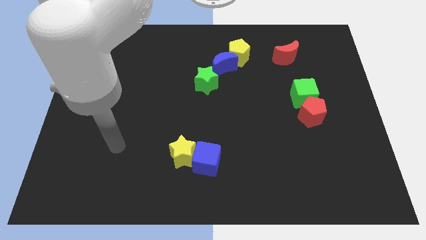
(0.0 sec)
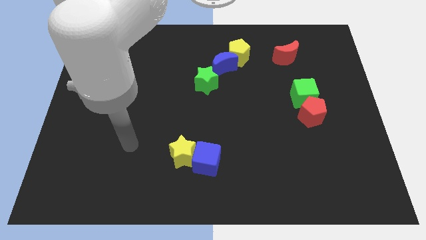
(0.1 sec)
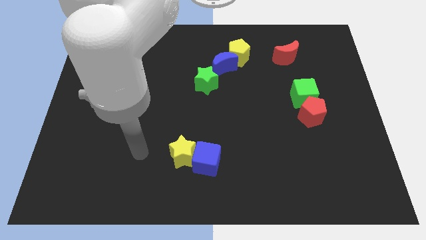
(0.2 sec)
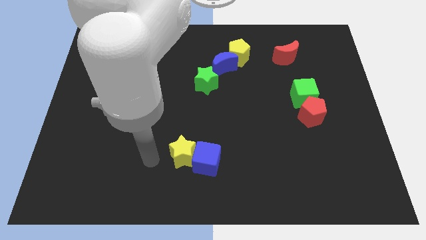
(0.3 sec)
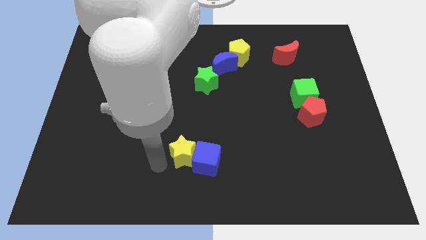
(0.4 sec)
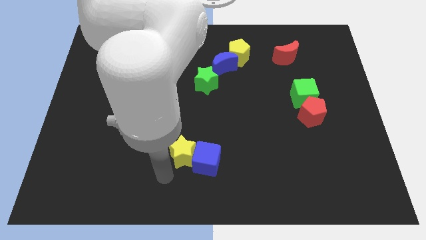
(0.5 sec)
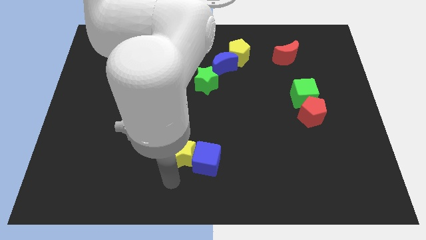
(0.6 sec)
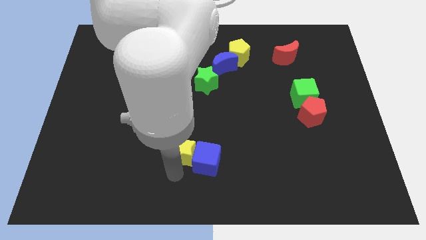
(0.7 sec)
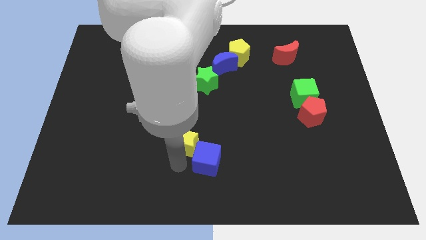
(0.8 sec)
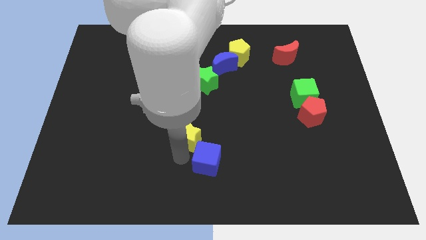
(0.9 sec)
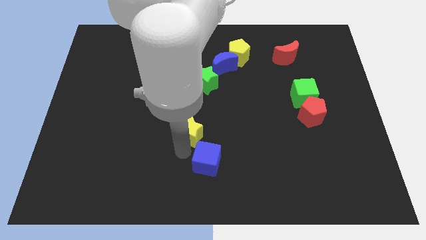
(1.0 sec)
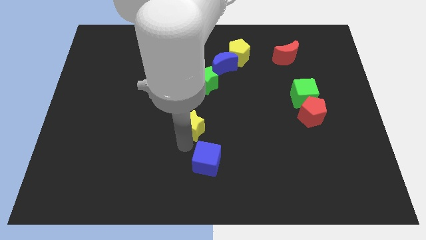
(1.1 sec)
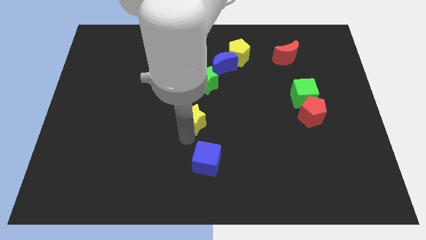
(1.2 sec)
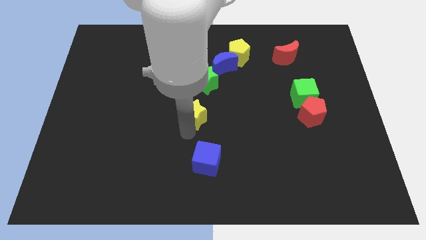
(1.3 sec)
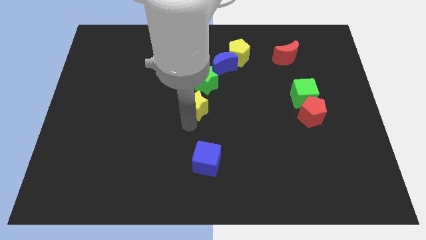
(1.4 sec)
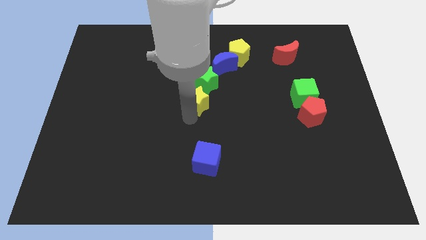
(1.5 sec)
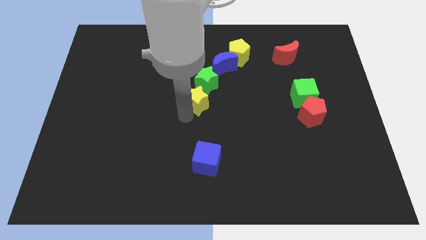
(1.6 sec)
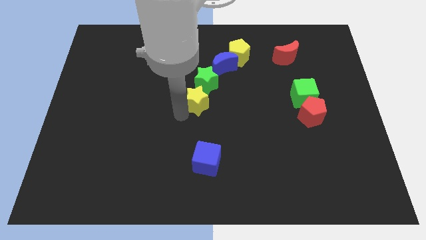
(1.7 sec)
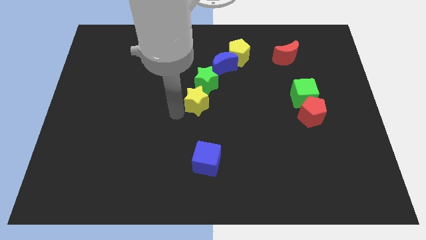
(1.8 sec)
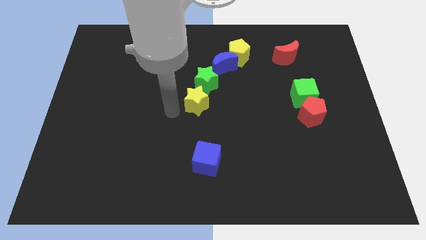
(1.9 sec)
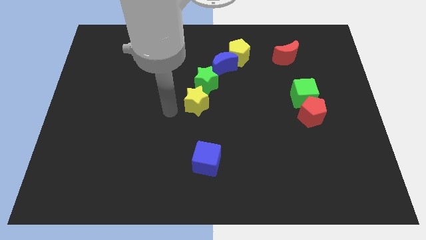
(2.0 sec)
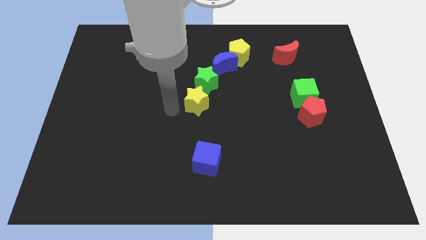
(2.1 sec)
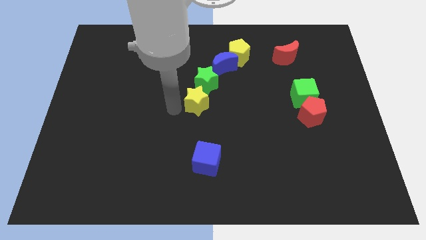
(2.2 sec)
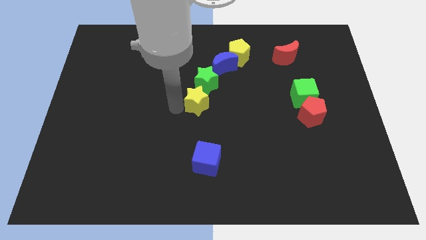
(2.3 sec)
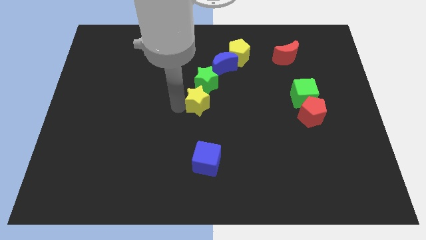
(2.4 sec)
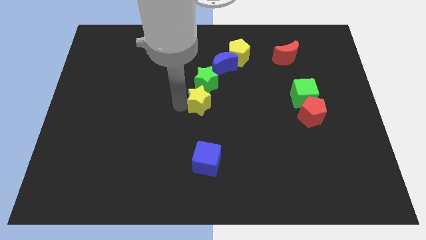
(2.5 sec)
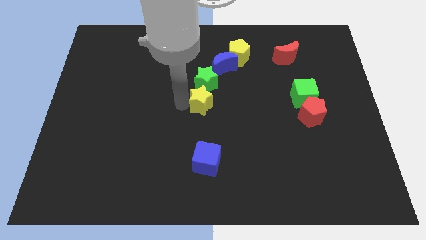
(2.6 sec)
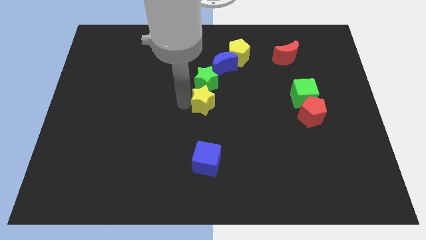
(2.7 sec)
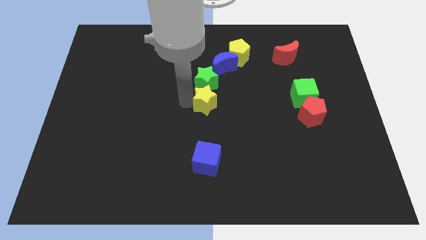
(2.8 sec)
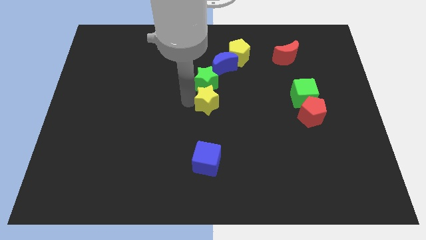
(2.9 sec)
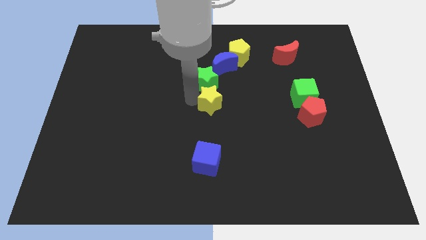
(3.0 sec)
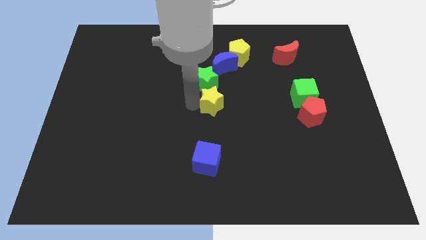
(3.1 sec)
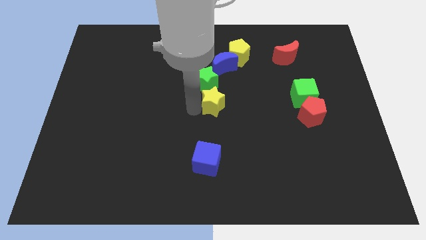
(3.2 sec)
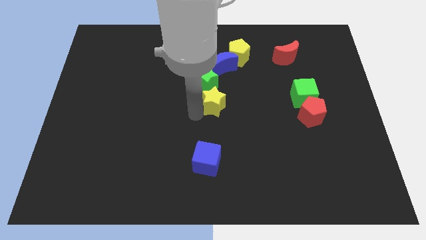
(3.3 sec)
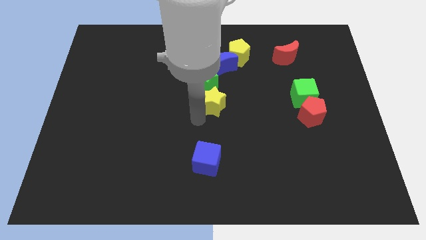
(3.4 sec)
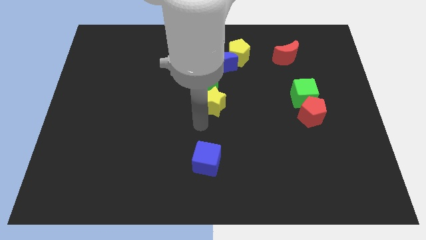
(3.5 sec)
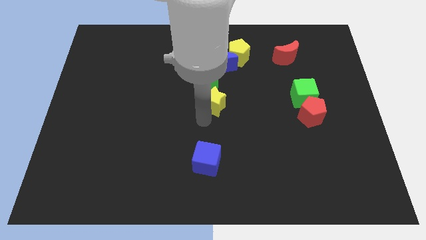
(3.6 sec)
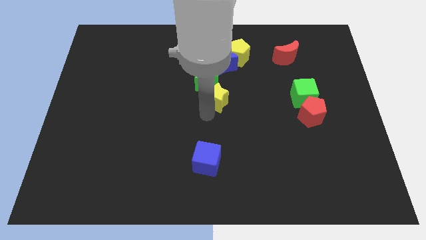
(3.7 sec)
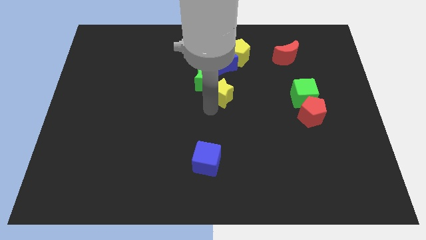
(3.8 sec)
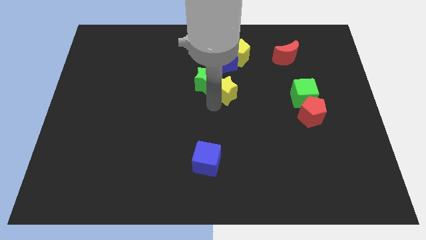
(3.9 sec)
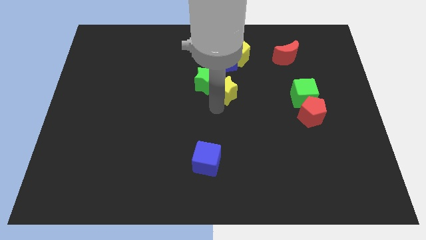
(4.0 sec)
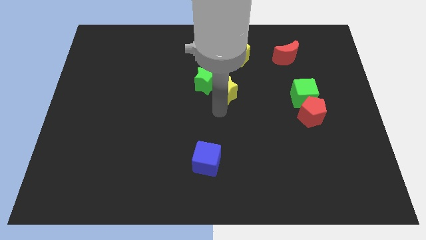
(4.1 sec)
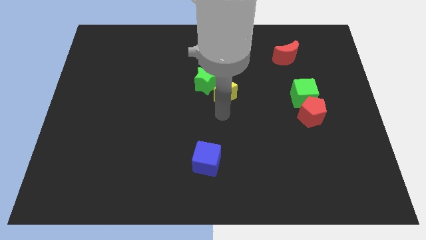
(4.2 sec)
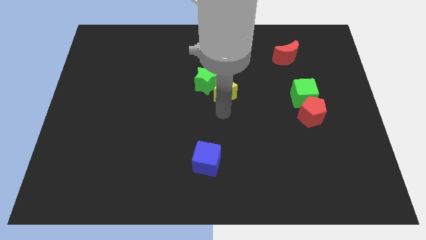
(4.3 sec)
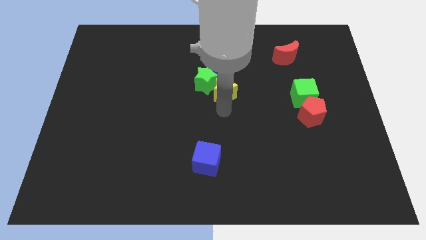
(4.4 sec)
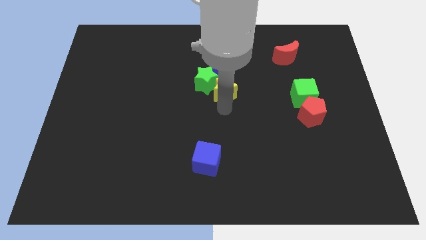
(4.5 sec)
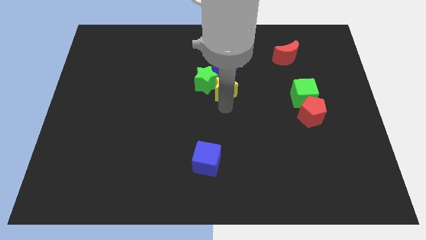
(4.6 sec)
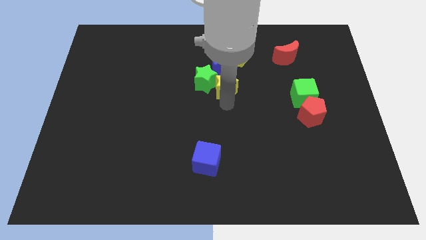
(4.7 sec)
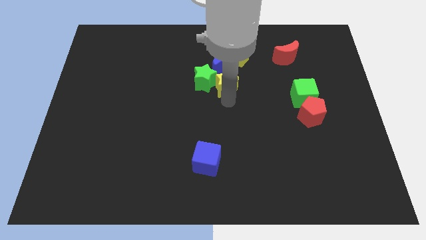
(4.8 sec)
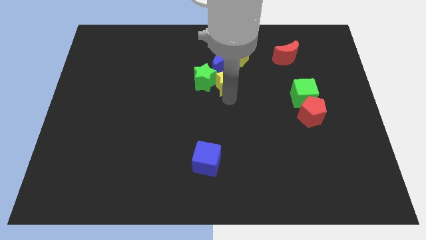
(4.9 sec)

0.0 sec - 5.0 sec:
slide the yellow star towards the blue moon

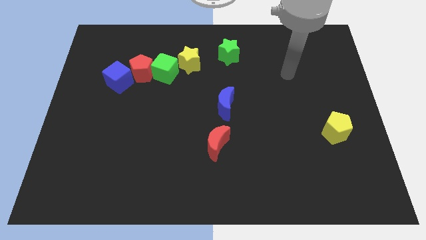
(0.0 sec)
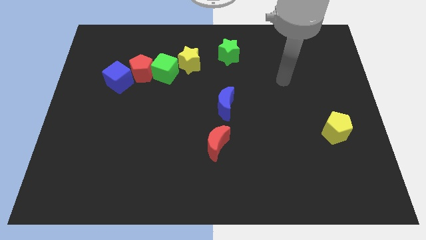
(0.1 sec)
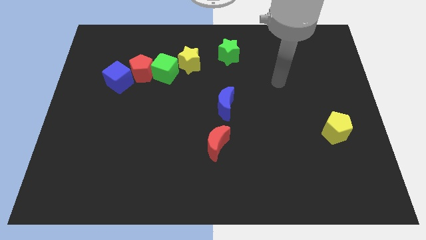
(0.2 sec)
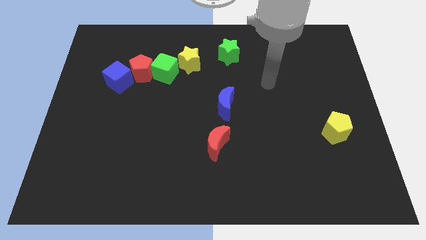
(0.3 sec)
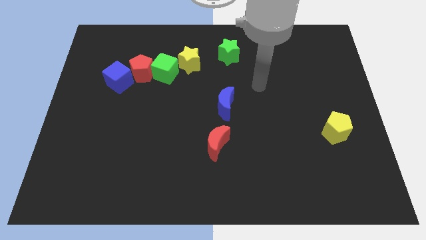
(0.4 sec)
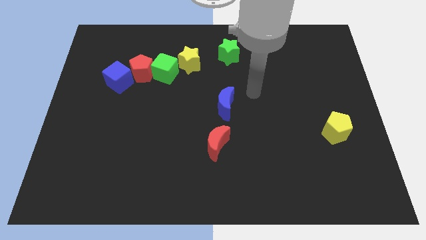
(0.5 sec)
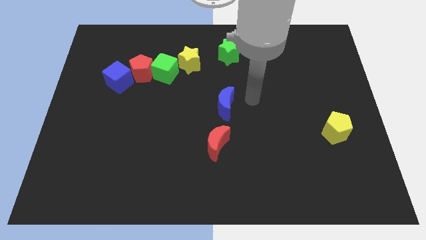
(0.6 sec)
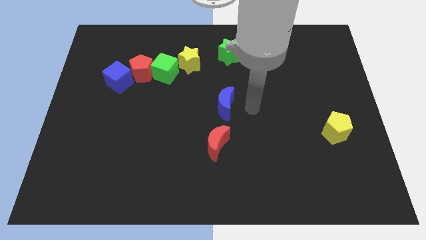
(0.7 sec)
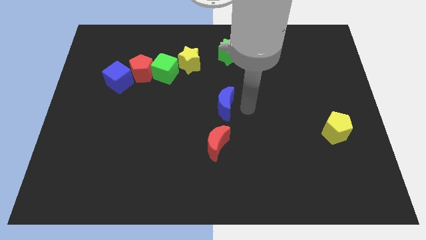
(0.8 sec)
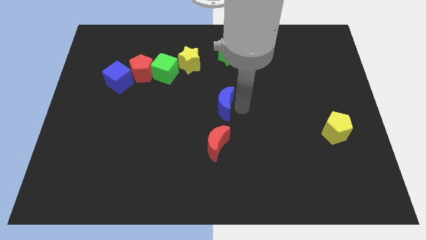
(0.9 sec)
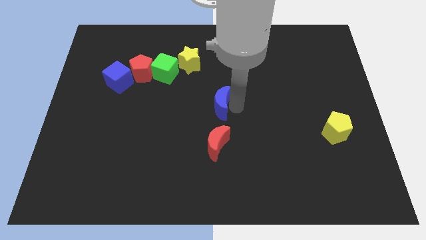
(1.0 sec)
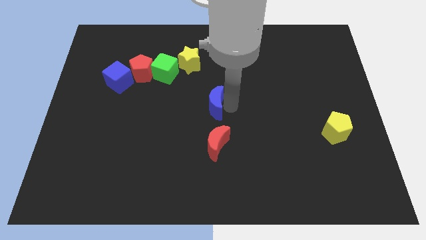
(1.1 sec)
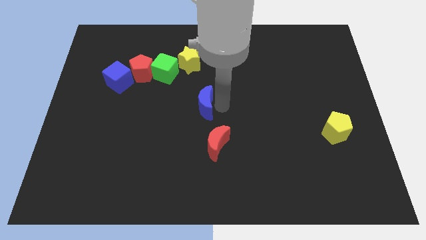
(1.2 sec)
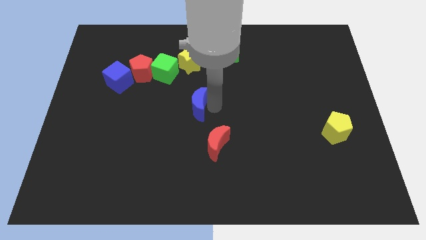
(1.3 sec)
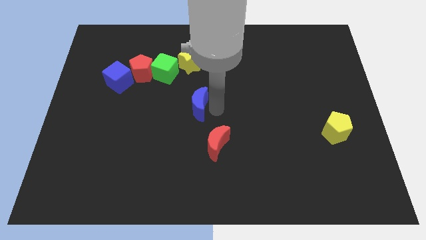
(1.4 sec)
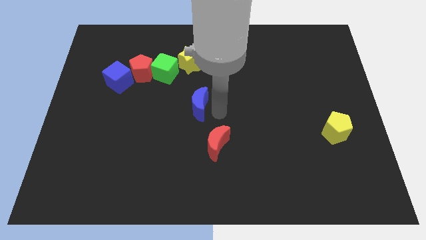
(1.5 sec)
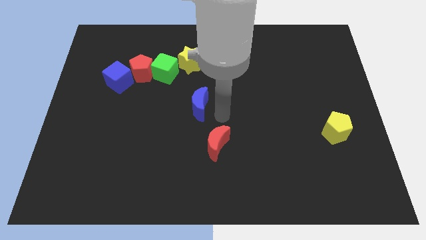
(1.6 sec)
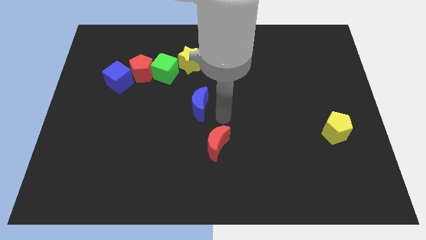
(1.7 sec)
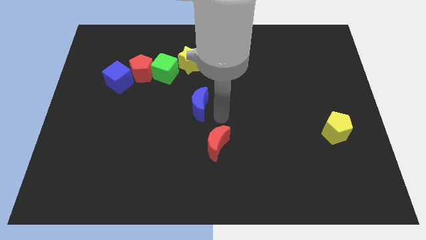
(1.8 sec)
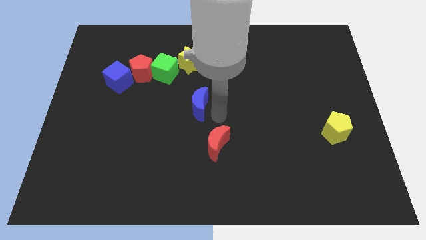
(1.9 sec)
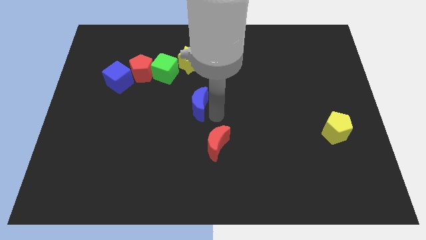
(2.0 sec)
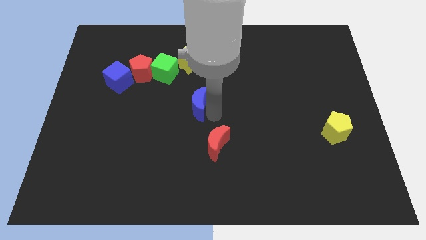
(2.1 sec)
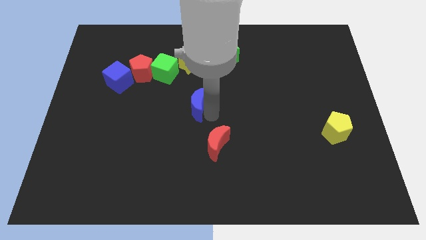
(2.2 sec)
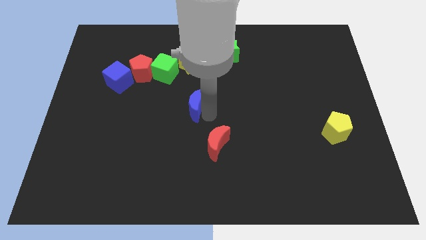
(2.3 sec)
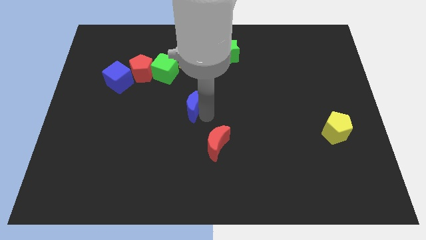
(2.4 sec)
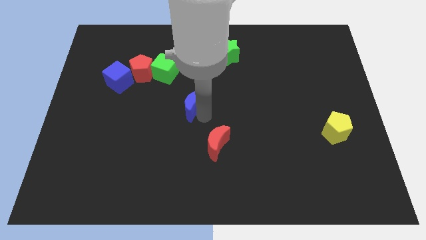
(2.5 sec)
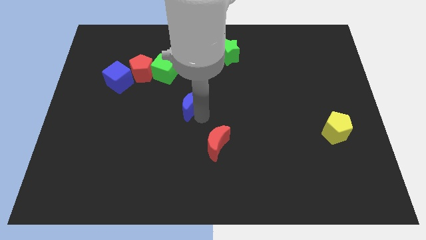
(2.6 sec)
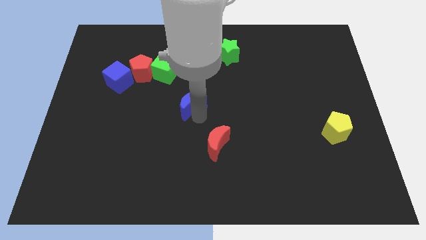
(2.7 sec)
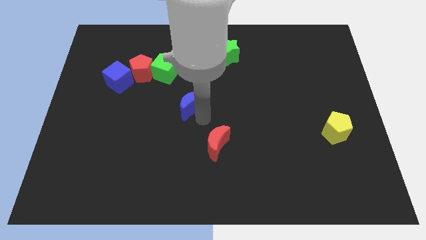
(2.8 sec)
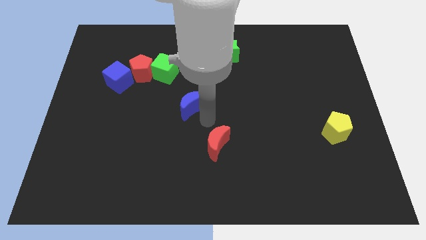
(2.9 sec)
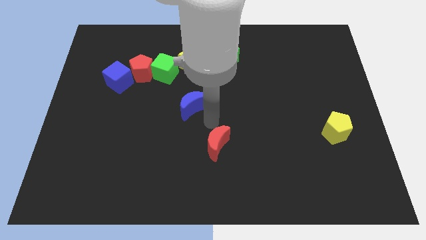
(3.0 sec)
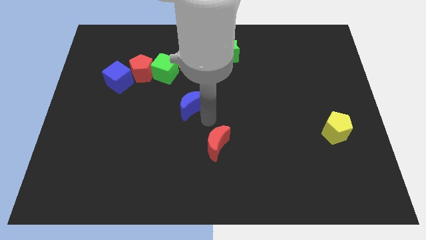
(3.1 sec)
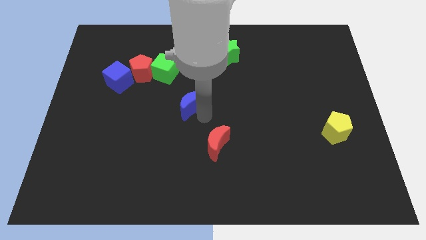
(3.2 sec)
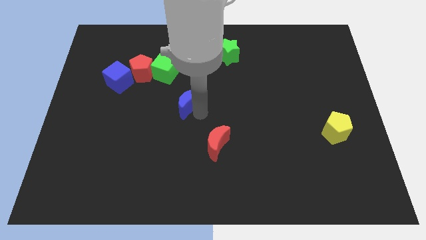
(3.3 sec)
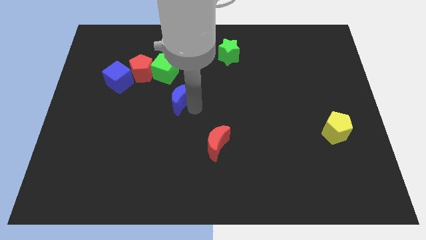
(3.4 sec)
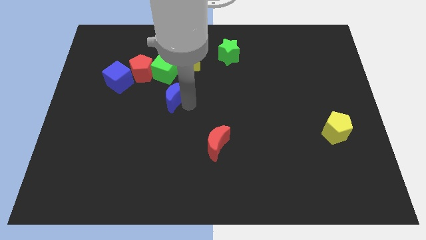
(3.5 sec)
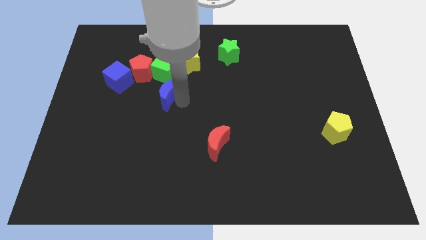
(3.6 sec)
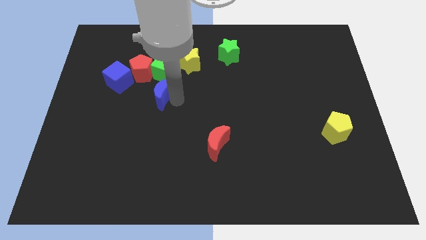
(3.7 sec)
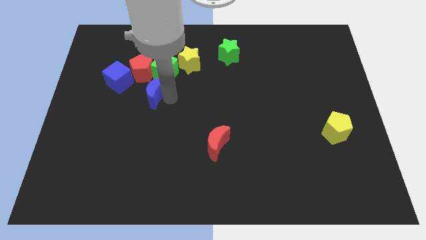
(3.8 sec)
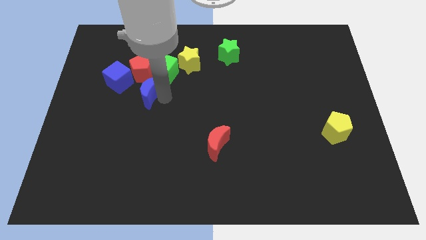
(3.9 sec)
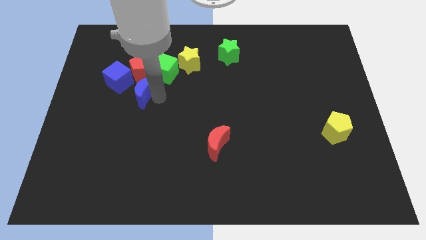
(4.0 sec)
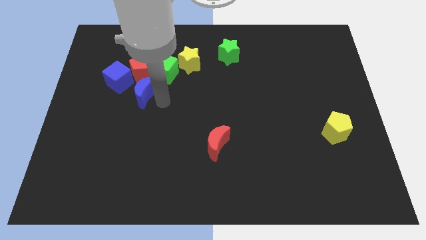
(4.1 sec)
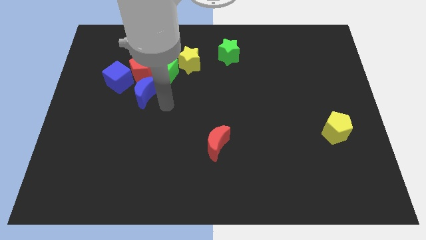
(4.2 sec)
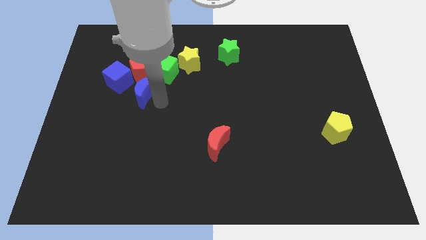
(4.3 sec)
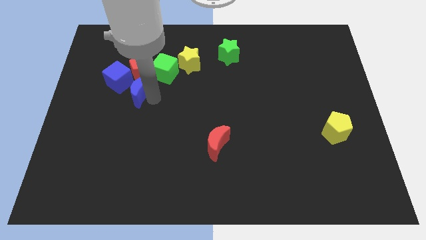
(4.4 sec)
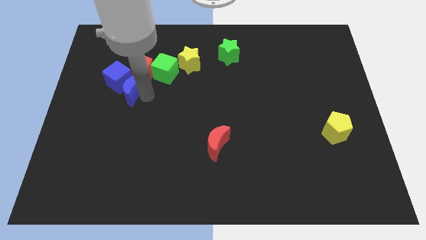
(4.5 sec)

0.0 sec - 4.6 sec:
push the blue moon next to the blue cube
